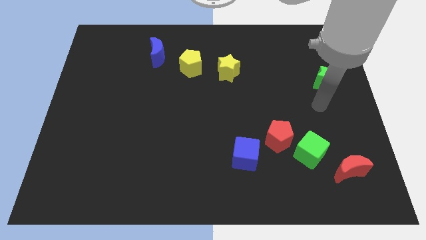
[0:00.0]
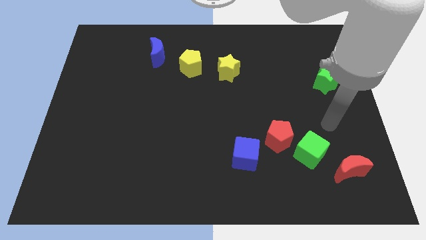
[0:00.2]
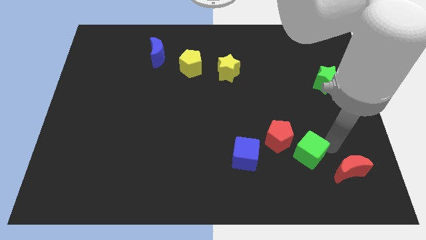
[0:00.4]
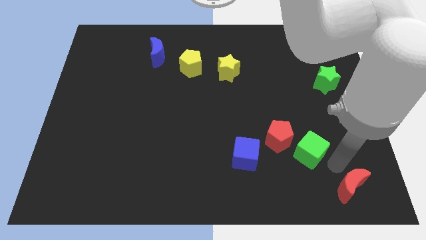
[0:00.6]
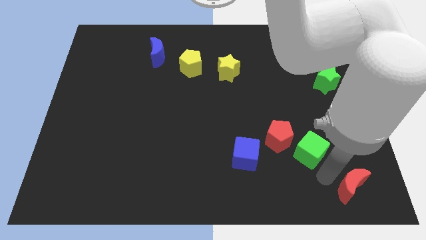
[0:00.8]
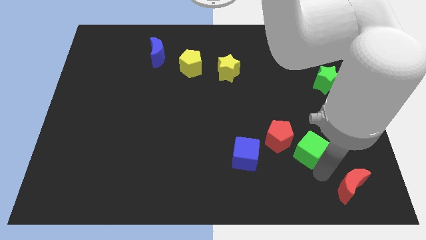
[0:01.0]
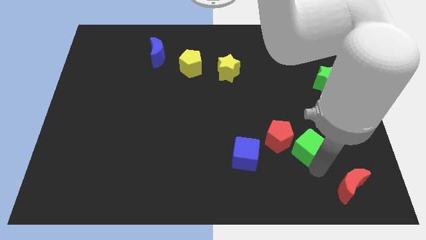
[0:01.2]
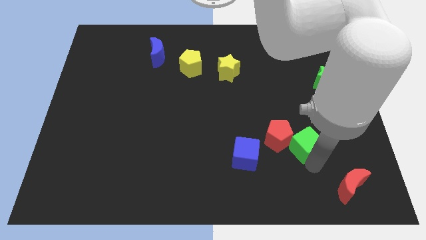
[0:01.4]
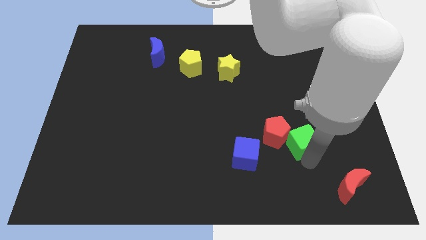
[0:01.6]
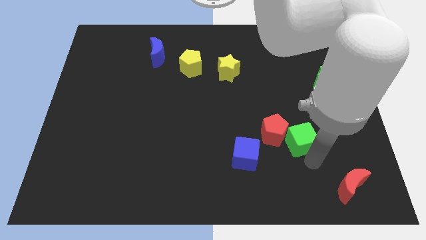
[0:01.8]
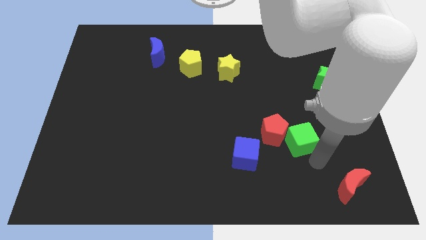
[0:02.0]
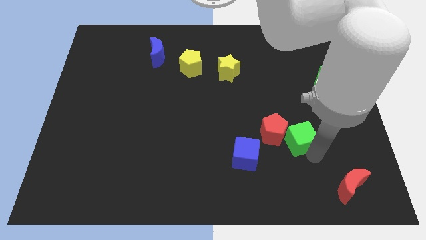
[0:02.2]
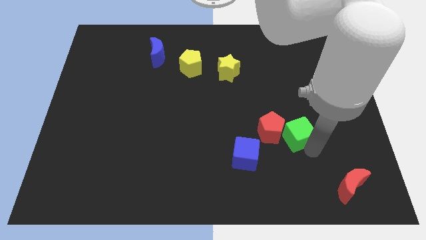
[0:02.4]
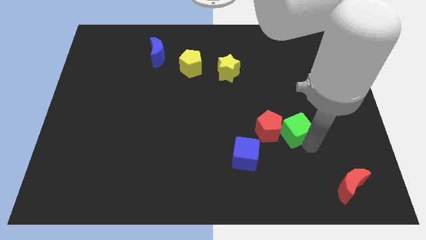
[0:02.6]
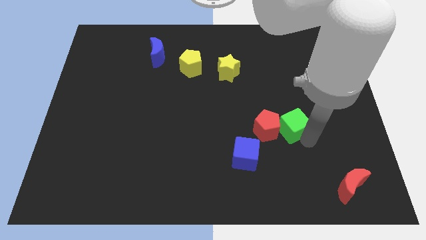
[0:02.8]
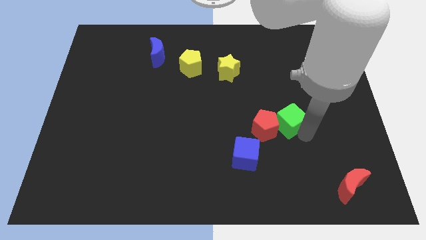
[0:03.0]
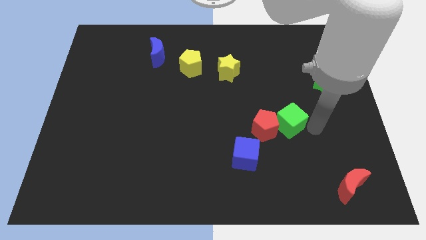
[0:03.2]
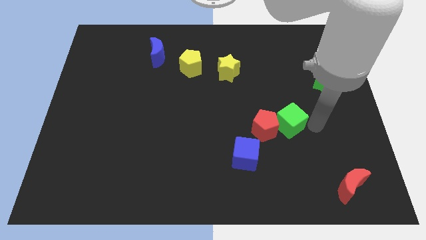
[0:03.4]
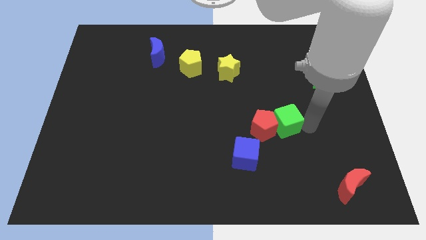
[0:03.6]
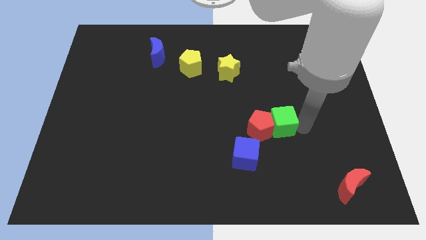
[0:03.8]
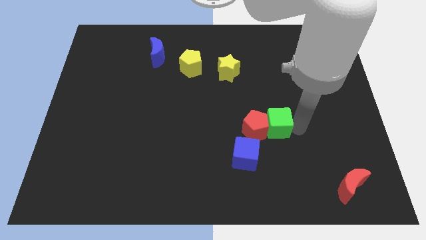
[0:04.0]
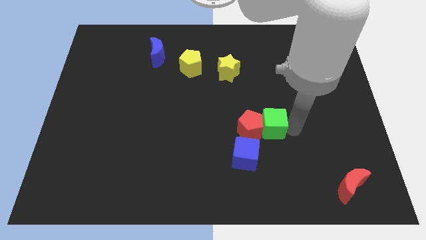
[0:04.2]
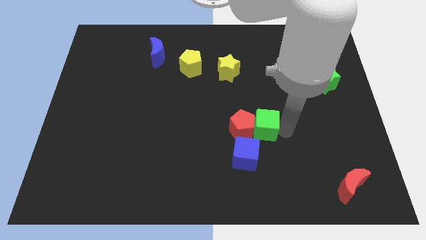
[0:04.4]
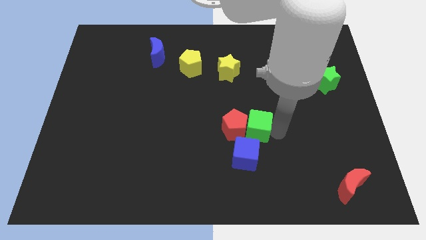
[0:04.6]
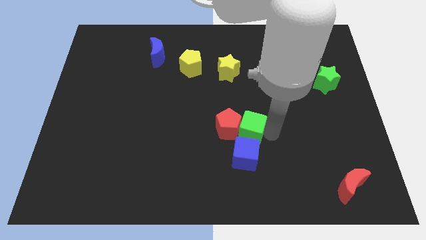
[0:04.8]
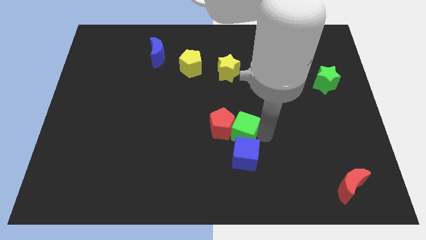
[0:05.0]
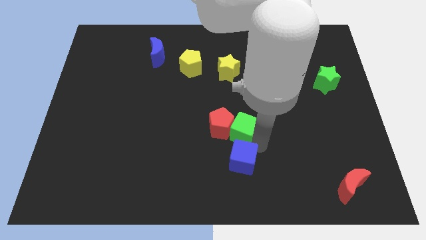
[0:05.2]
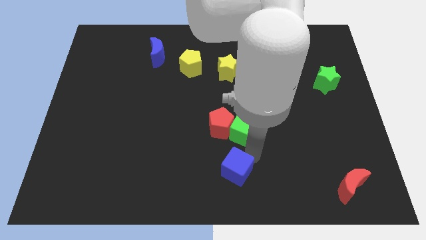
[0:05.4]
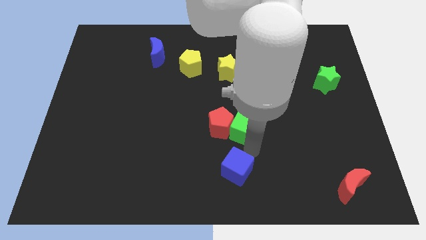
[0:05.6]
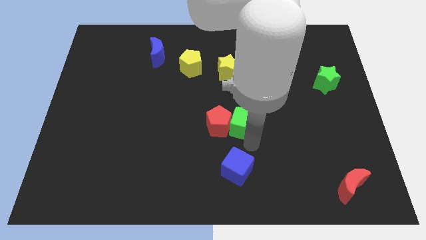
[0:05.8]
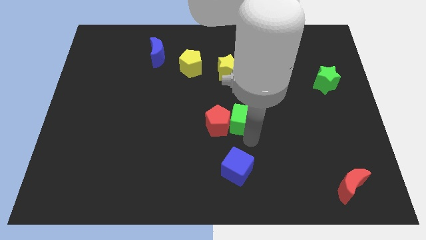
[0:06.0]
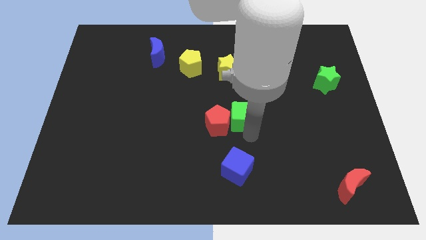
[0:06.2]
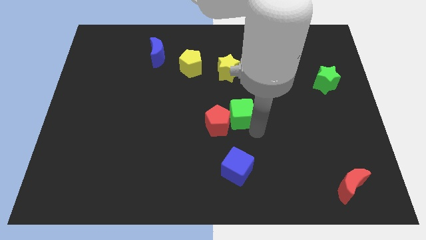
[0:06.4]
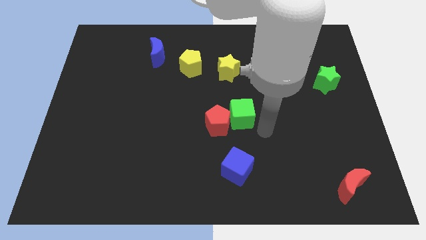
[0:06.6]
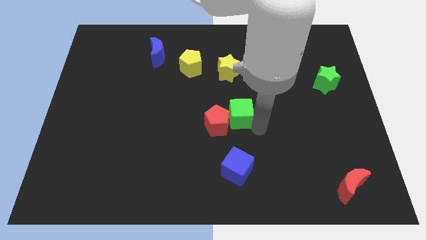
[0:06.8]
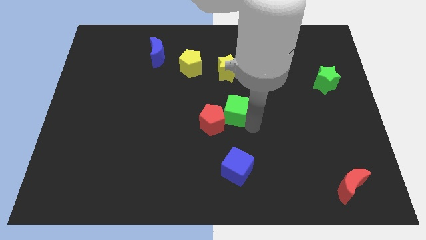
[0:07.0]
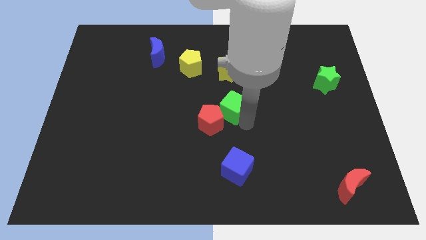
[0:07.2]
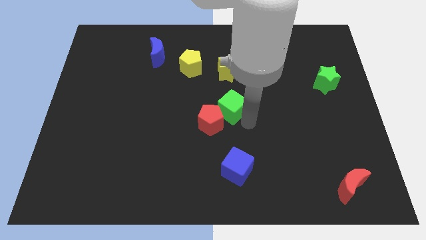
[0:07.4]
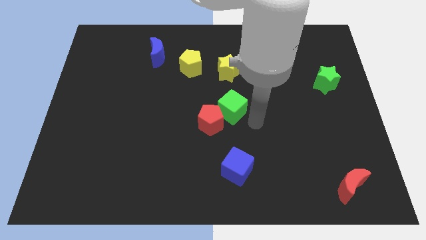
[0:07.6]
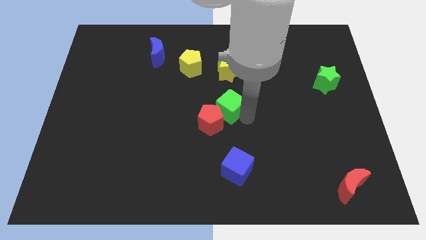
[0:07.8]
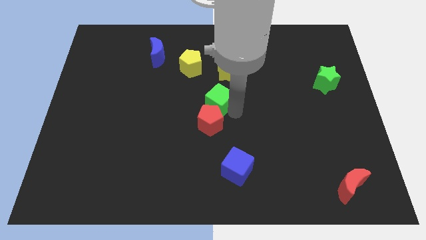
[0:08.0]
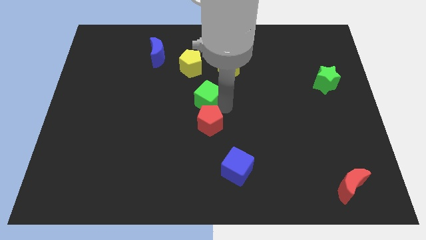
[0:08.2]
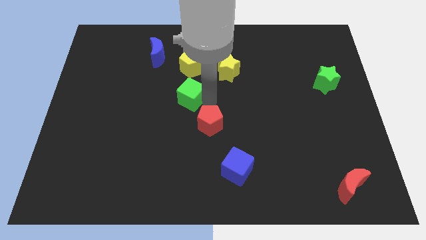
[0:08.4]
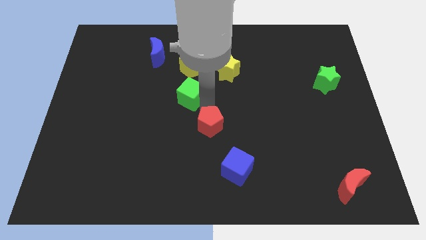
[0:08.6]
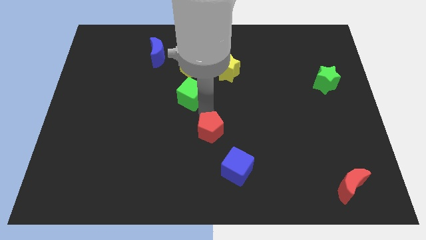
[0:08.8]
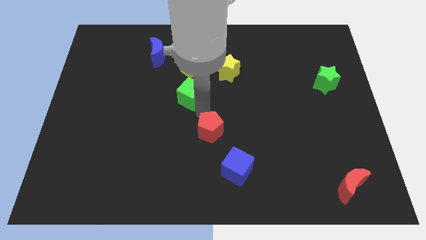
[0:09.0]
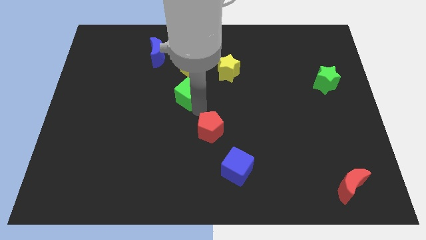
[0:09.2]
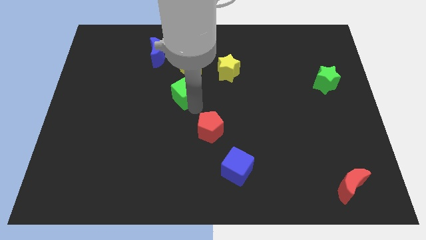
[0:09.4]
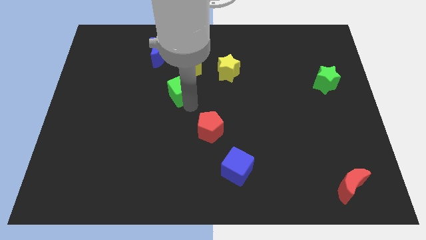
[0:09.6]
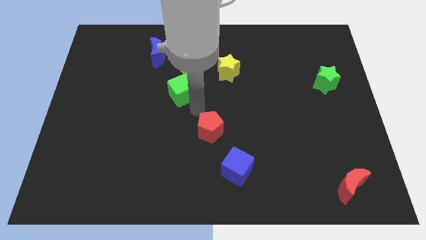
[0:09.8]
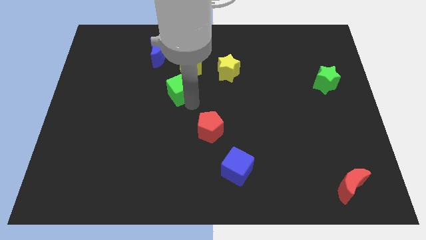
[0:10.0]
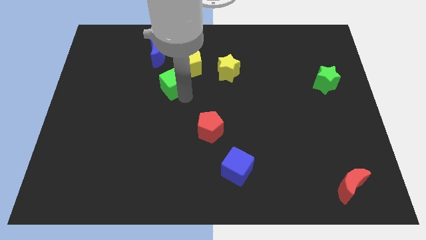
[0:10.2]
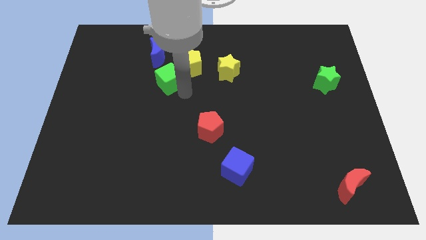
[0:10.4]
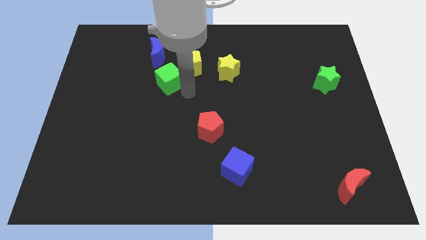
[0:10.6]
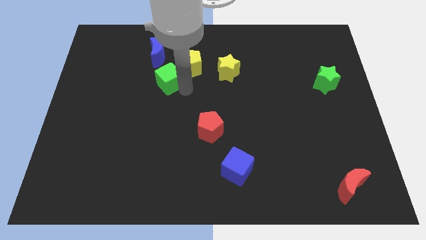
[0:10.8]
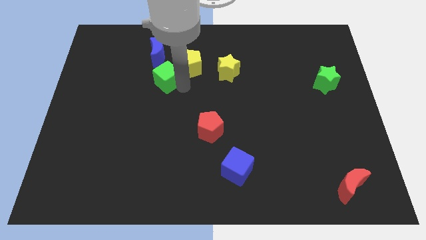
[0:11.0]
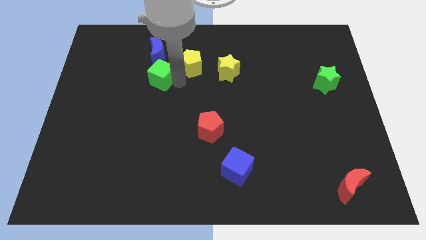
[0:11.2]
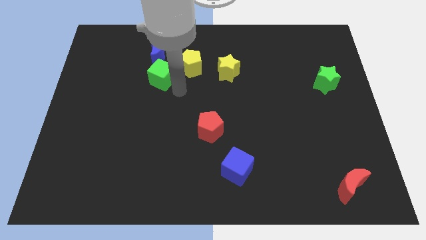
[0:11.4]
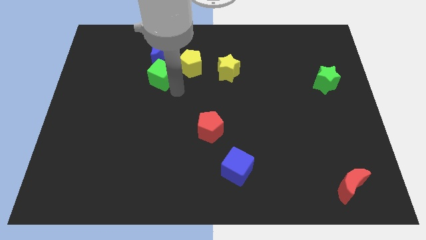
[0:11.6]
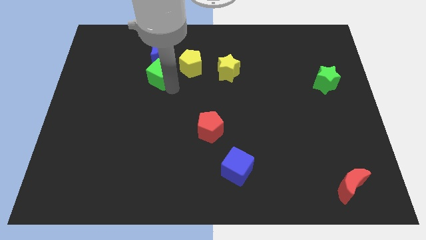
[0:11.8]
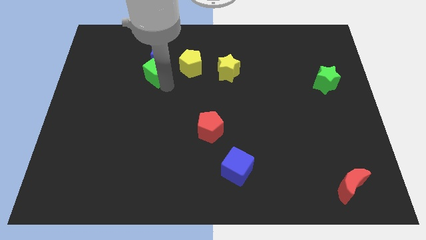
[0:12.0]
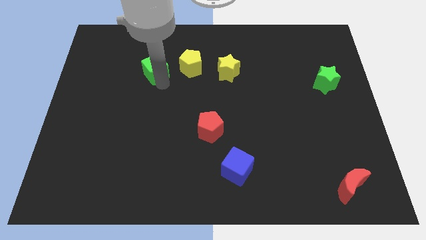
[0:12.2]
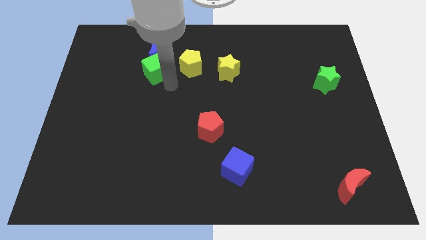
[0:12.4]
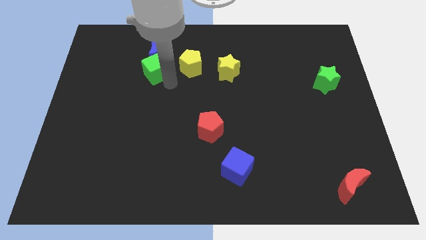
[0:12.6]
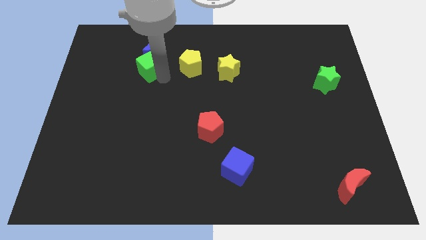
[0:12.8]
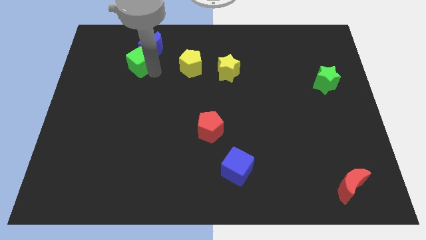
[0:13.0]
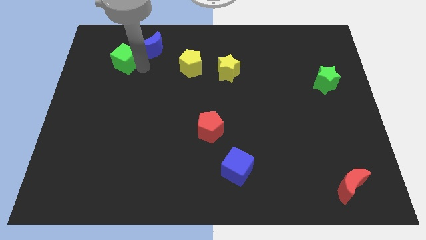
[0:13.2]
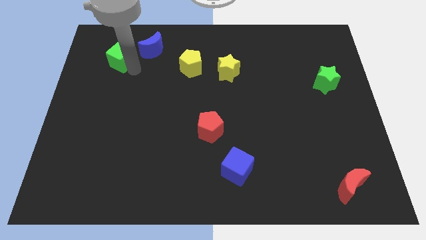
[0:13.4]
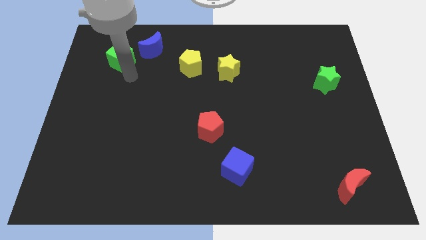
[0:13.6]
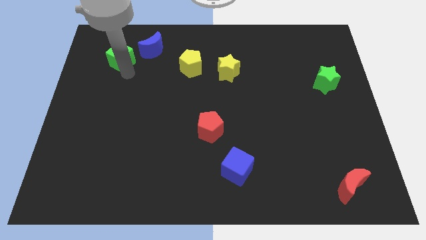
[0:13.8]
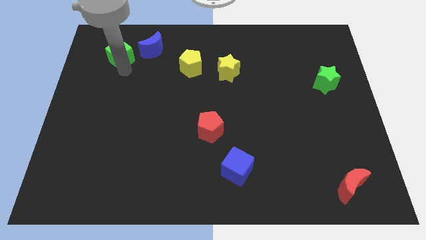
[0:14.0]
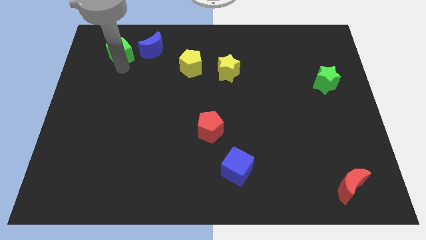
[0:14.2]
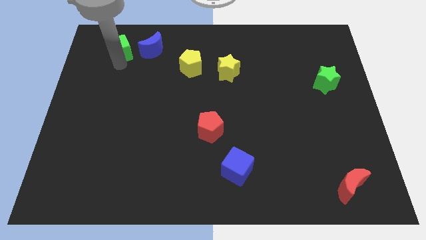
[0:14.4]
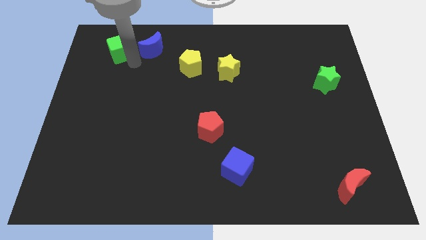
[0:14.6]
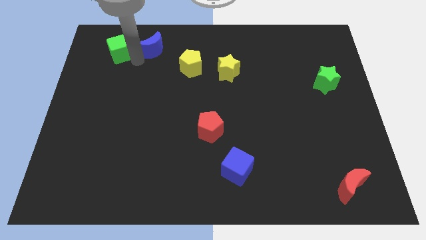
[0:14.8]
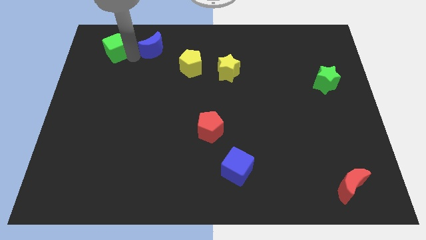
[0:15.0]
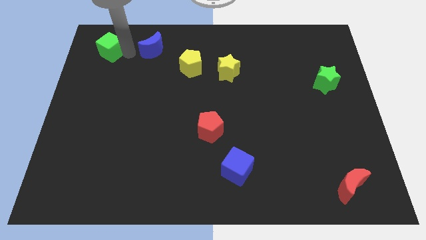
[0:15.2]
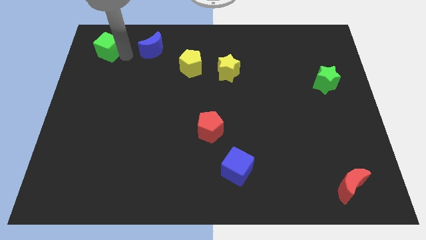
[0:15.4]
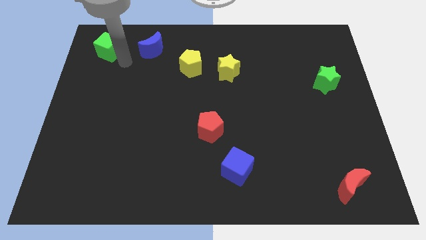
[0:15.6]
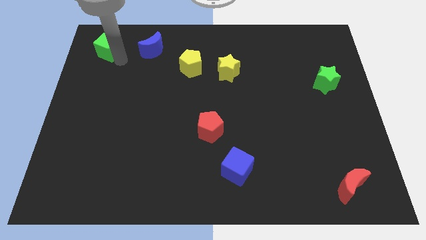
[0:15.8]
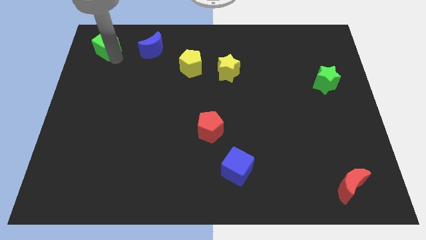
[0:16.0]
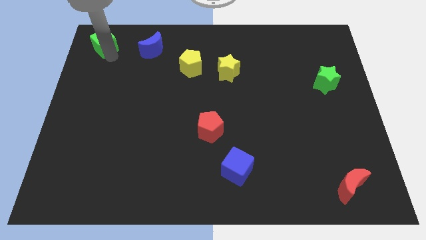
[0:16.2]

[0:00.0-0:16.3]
push the green cube to the top left corner
